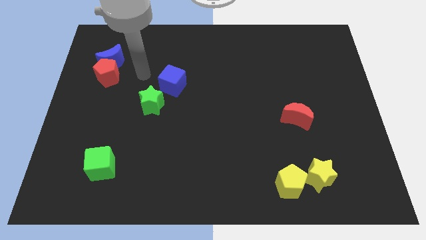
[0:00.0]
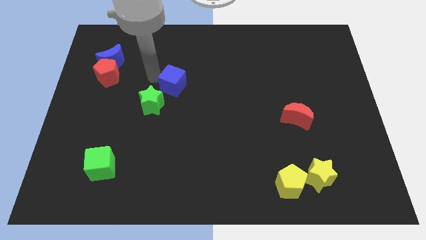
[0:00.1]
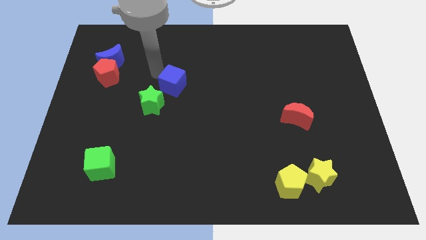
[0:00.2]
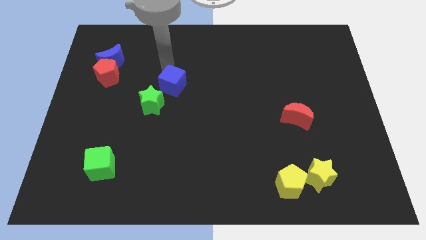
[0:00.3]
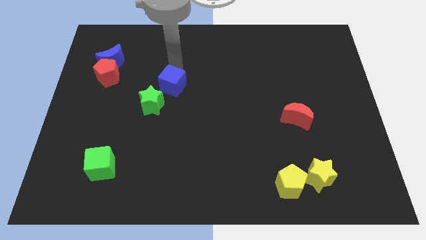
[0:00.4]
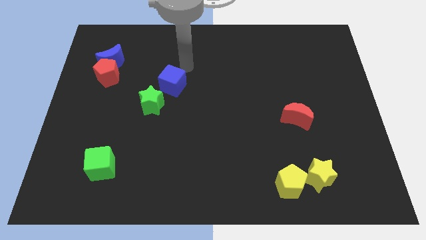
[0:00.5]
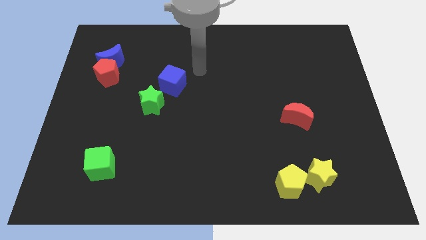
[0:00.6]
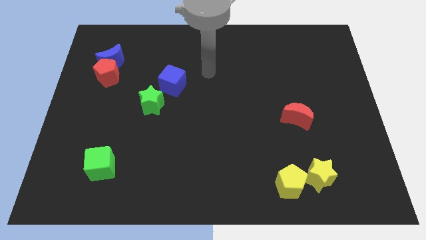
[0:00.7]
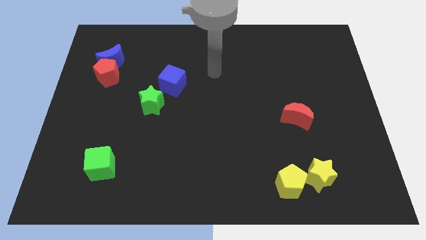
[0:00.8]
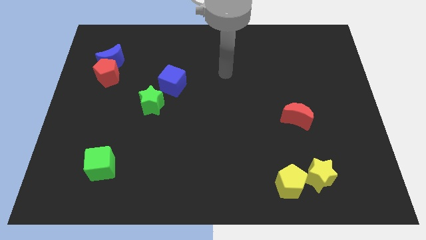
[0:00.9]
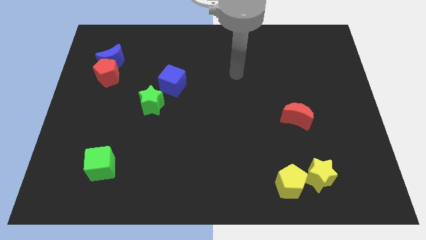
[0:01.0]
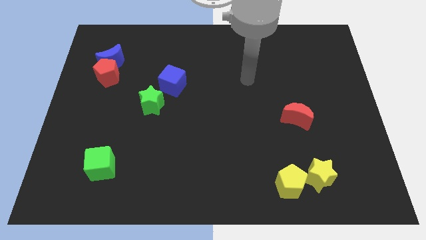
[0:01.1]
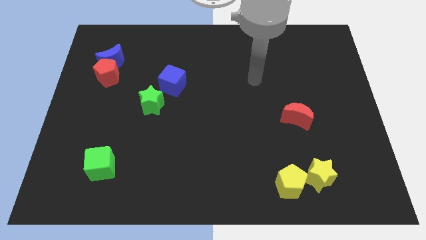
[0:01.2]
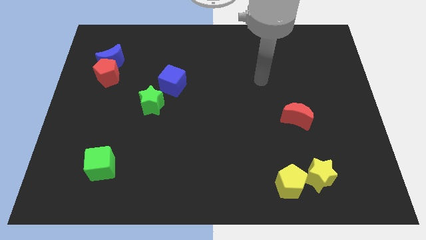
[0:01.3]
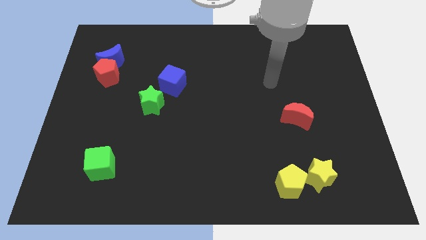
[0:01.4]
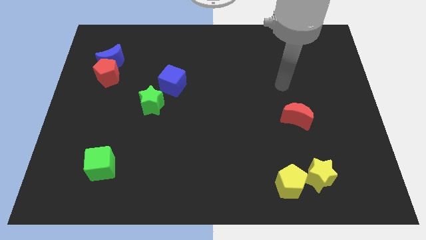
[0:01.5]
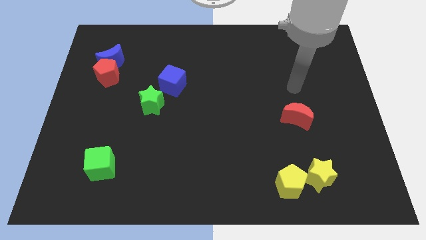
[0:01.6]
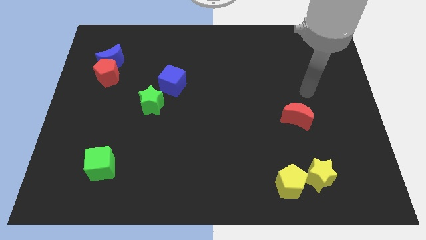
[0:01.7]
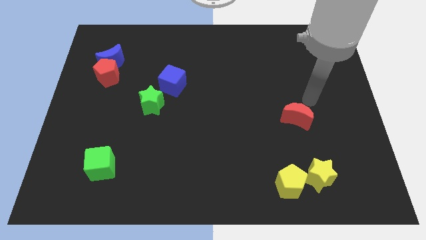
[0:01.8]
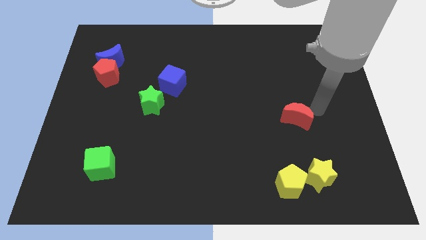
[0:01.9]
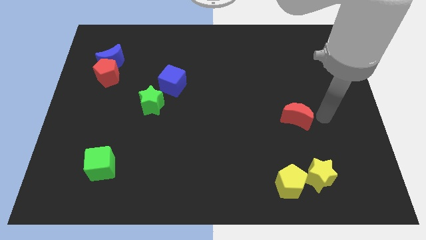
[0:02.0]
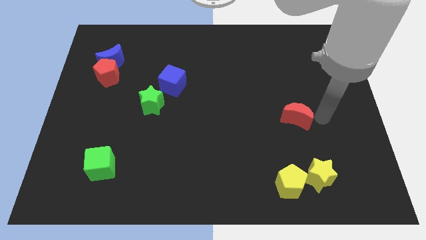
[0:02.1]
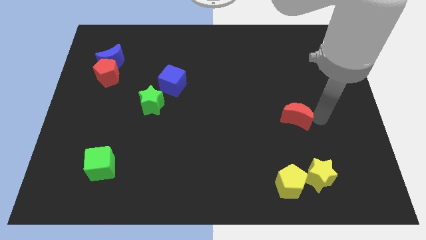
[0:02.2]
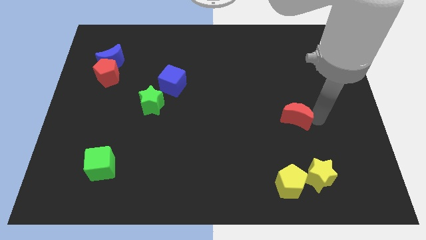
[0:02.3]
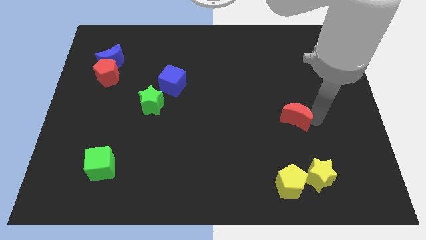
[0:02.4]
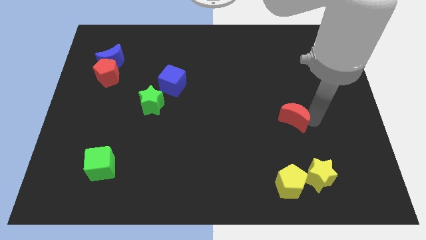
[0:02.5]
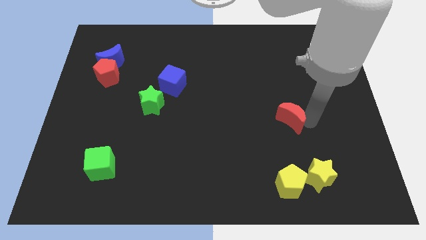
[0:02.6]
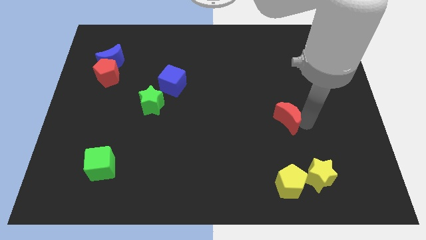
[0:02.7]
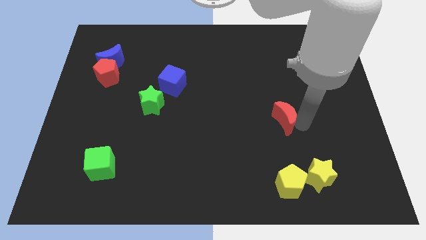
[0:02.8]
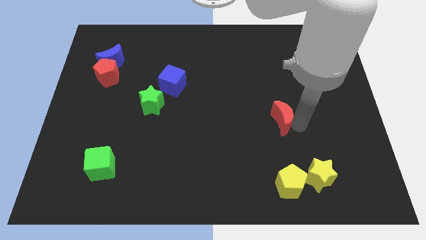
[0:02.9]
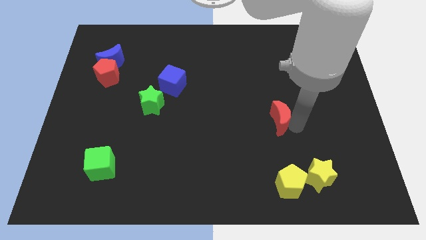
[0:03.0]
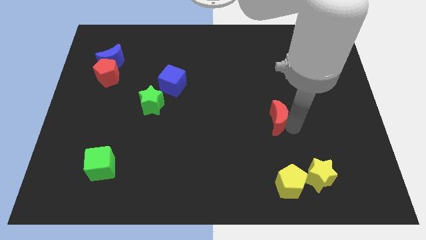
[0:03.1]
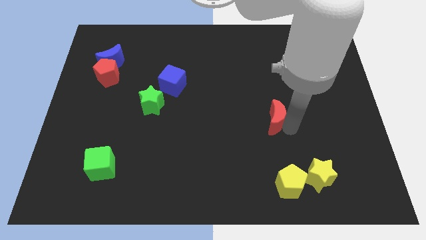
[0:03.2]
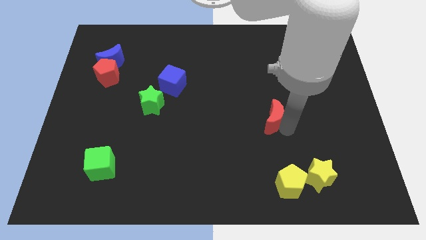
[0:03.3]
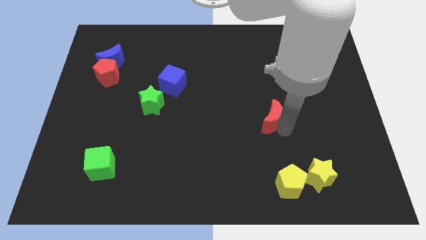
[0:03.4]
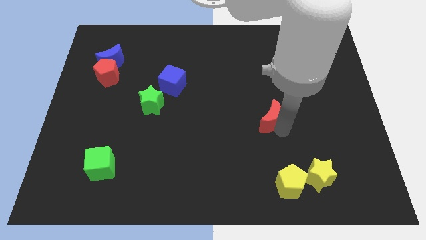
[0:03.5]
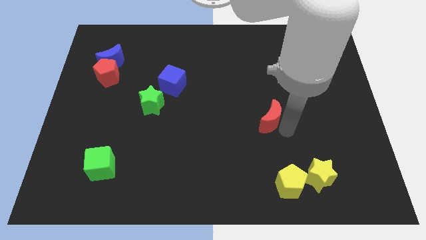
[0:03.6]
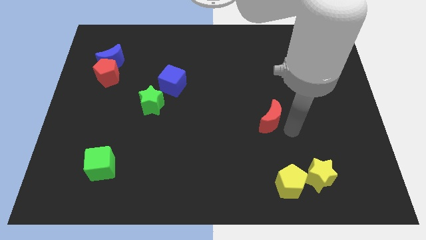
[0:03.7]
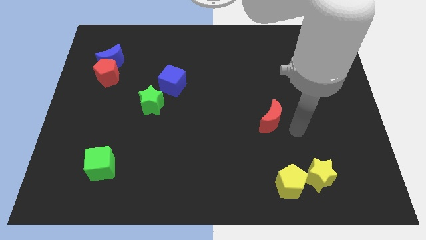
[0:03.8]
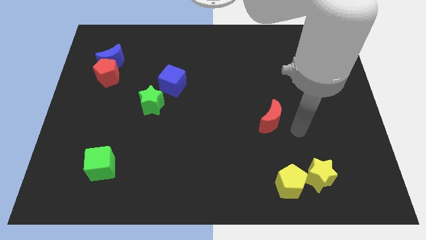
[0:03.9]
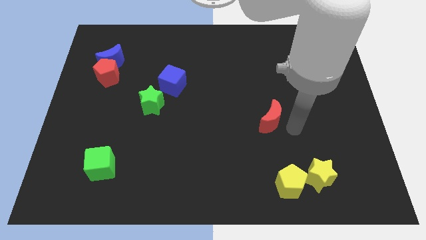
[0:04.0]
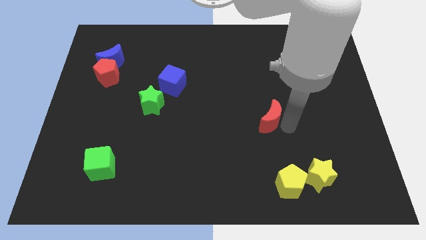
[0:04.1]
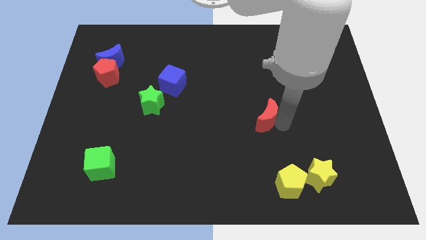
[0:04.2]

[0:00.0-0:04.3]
push the red moon a bit to the left

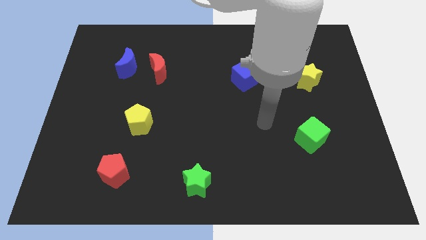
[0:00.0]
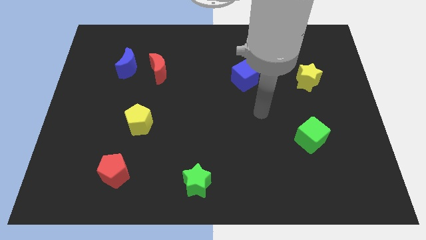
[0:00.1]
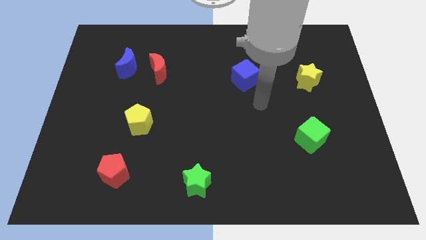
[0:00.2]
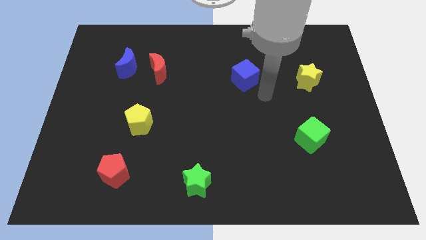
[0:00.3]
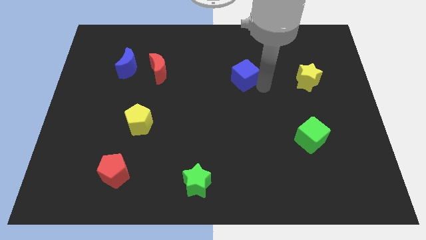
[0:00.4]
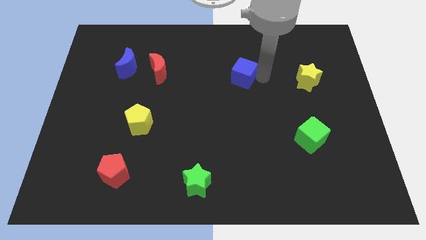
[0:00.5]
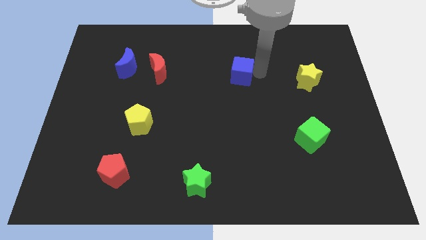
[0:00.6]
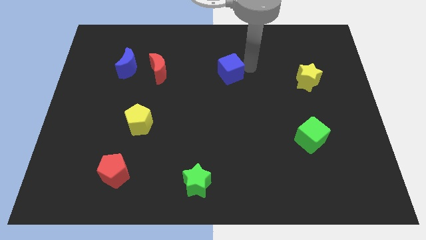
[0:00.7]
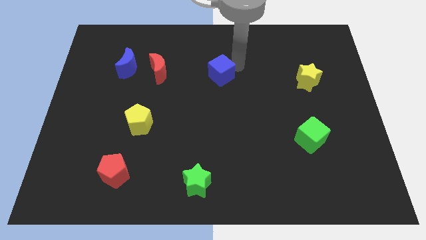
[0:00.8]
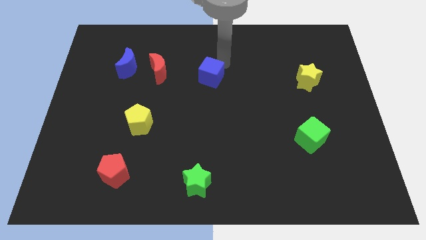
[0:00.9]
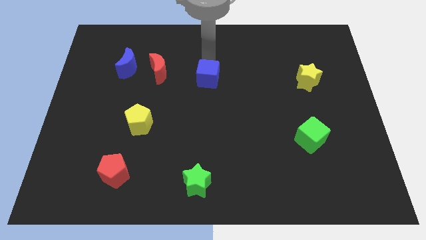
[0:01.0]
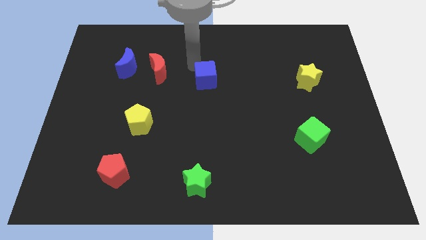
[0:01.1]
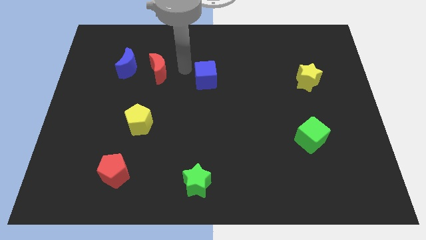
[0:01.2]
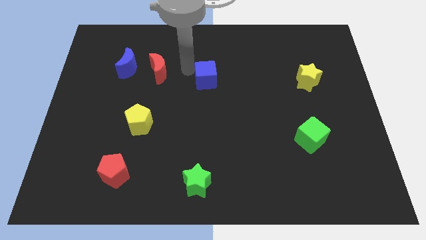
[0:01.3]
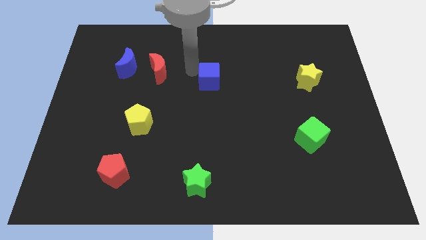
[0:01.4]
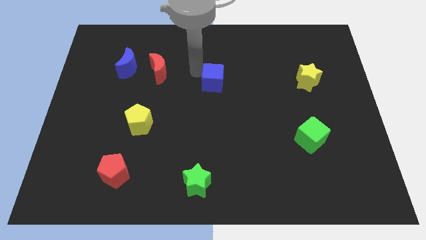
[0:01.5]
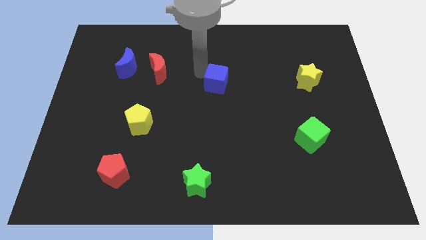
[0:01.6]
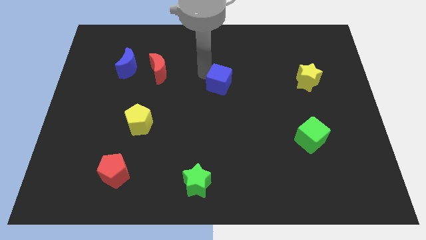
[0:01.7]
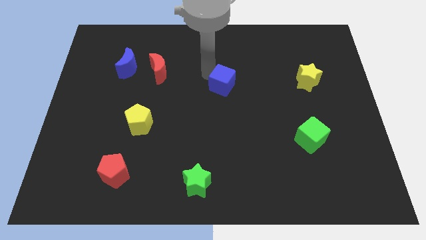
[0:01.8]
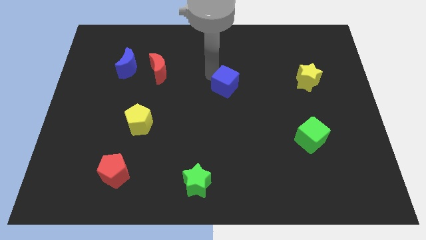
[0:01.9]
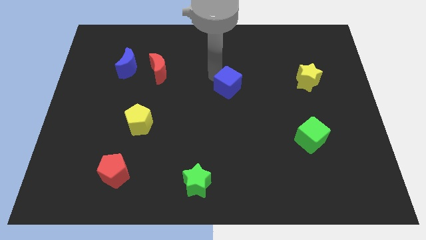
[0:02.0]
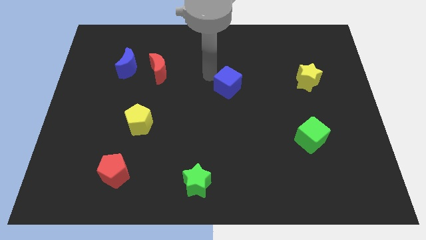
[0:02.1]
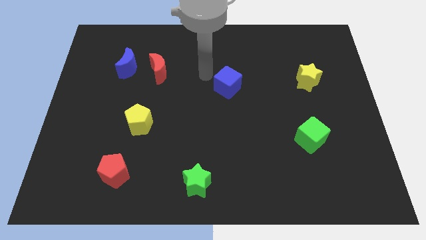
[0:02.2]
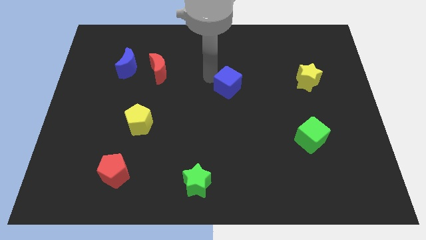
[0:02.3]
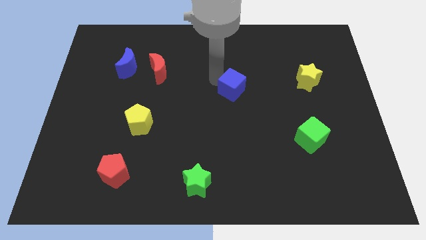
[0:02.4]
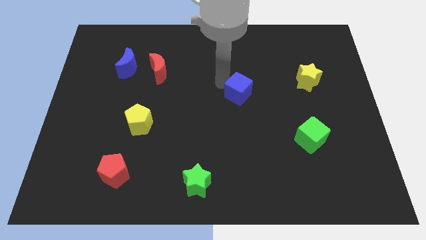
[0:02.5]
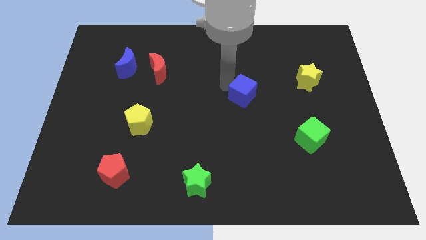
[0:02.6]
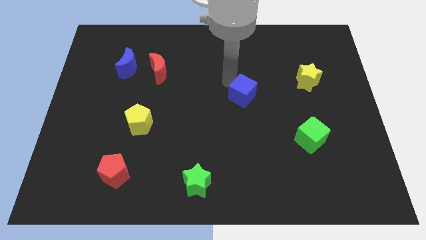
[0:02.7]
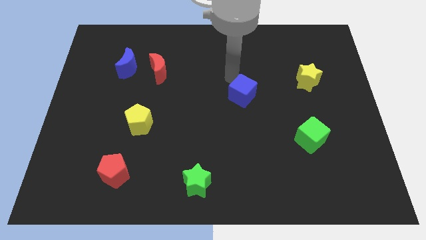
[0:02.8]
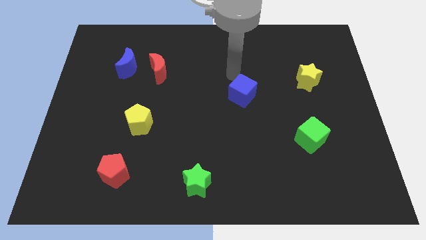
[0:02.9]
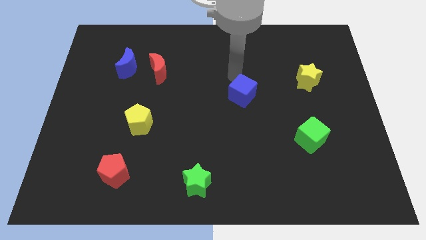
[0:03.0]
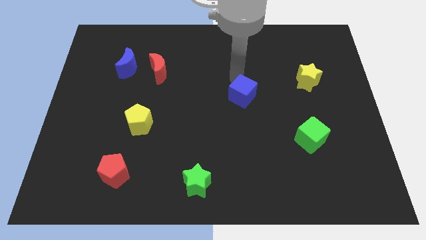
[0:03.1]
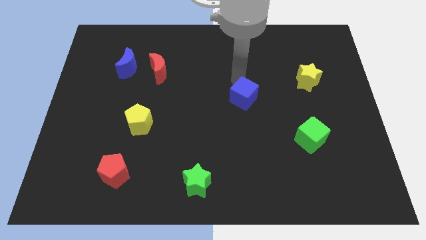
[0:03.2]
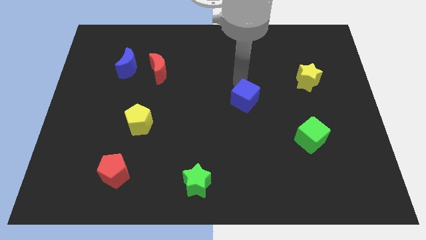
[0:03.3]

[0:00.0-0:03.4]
slightly slide the blue cube downwards

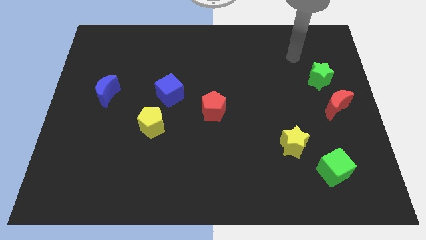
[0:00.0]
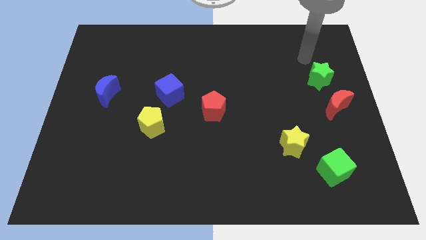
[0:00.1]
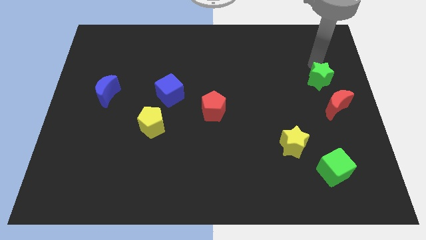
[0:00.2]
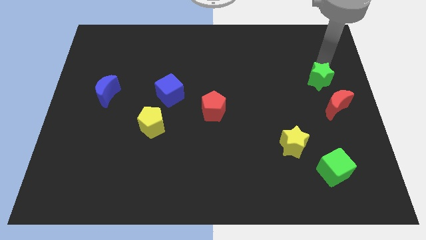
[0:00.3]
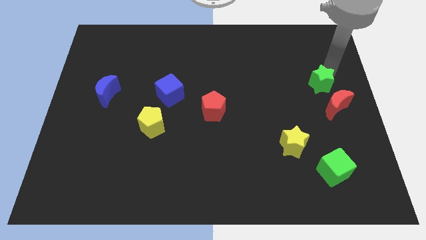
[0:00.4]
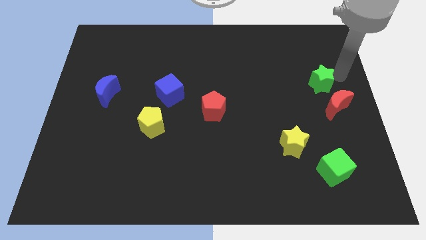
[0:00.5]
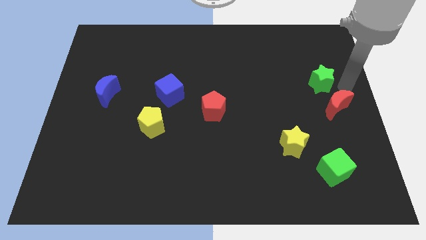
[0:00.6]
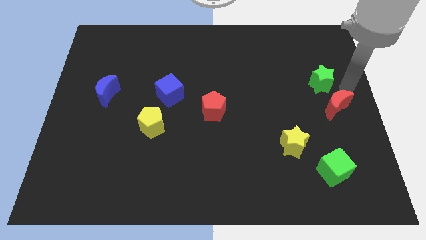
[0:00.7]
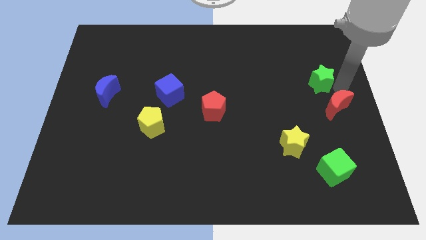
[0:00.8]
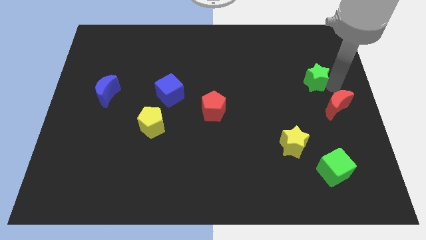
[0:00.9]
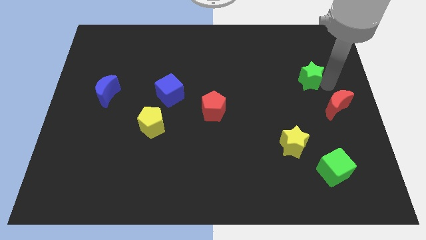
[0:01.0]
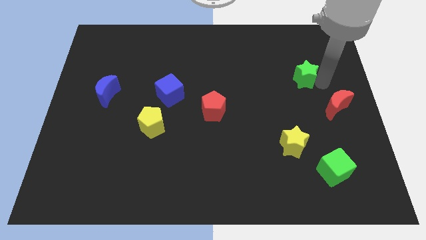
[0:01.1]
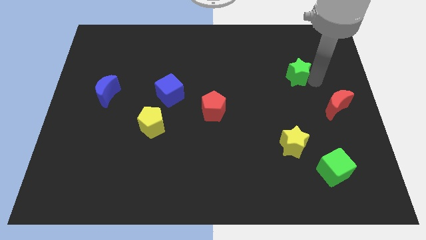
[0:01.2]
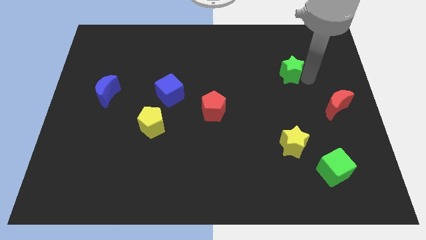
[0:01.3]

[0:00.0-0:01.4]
move the green star left a little
